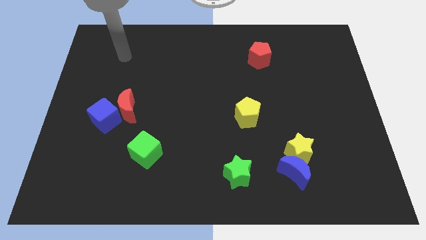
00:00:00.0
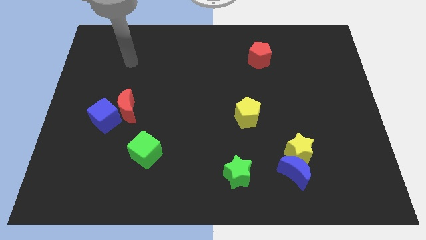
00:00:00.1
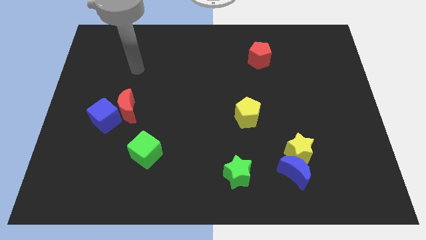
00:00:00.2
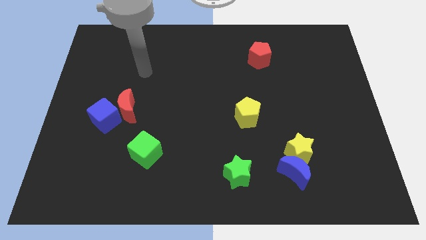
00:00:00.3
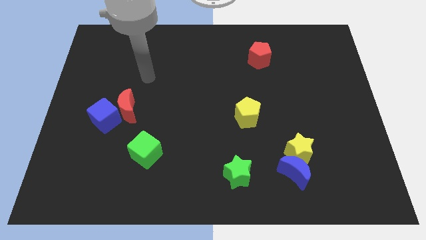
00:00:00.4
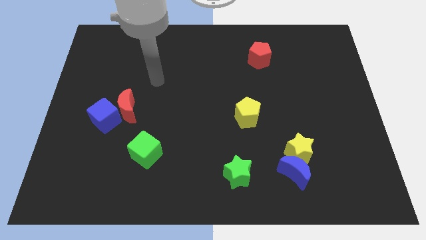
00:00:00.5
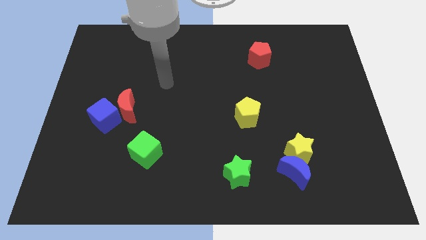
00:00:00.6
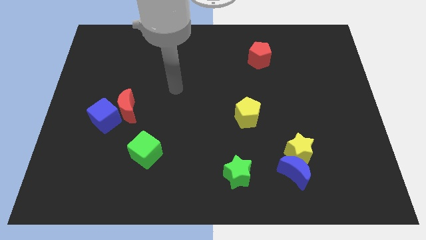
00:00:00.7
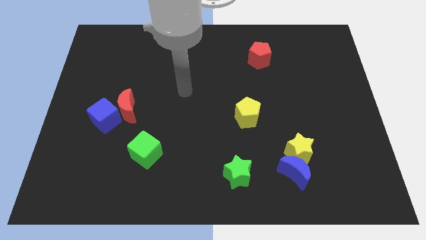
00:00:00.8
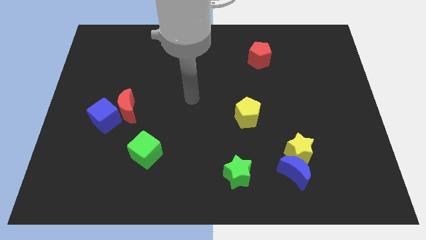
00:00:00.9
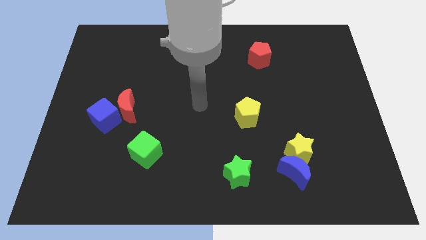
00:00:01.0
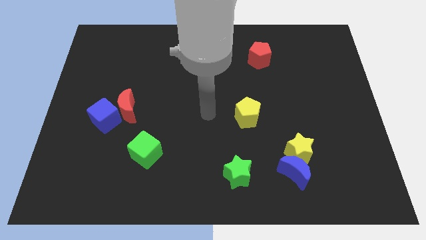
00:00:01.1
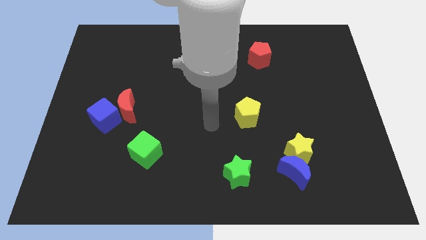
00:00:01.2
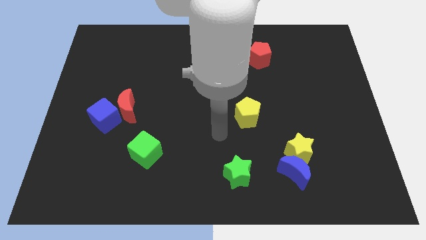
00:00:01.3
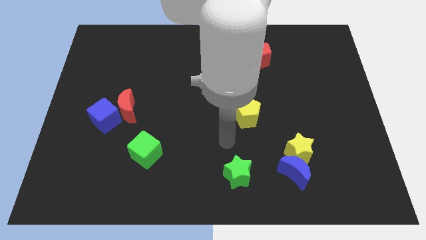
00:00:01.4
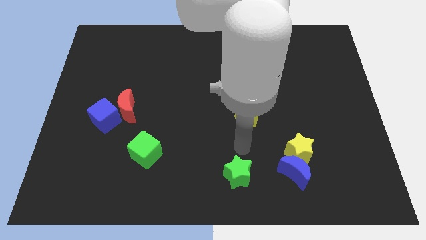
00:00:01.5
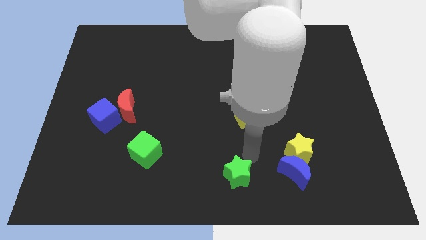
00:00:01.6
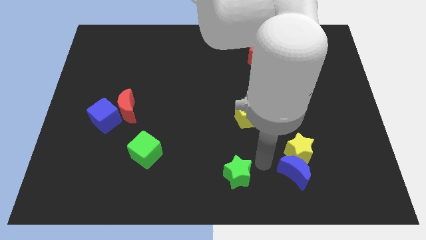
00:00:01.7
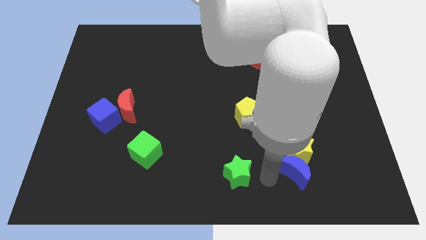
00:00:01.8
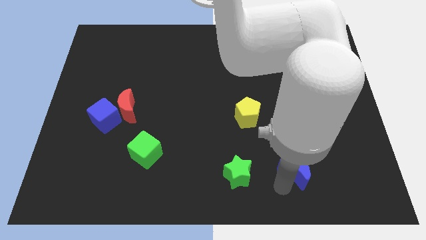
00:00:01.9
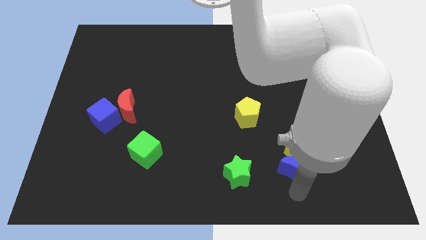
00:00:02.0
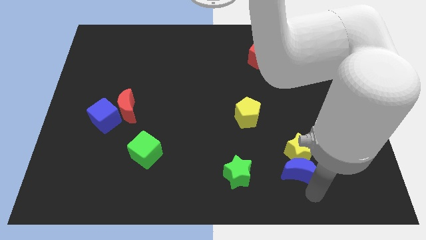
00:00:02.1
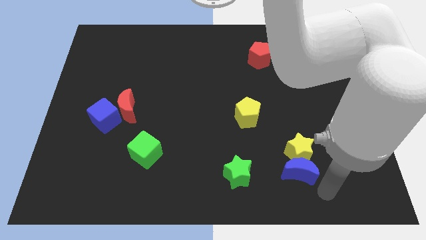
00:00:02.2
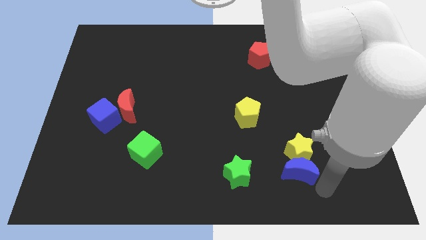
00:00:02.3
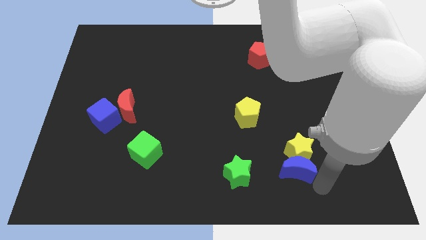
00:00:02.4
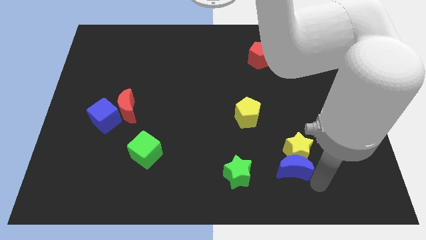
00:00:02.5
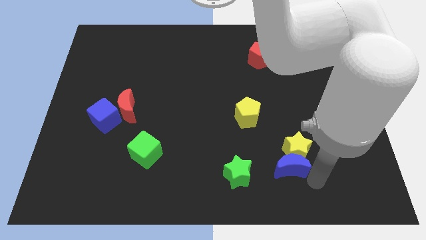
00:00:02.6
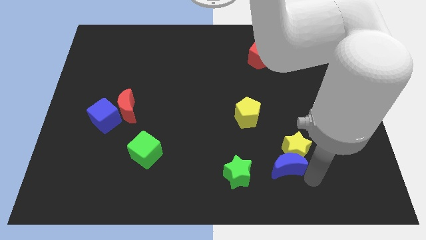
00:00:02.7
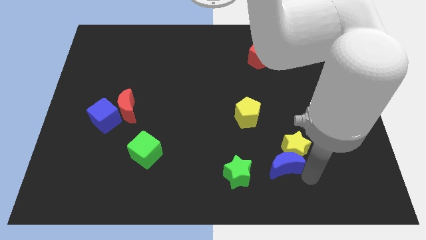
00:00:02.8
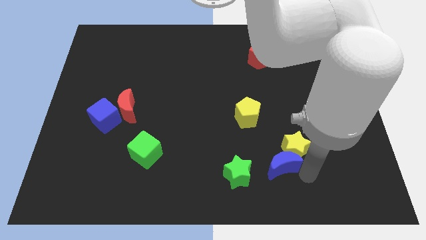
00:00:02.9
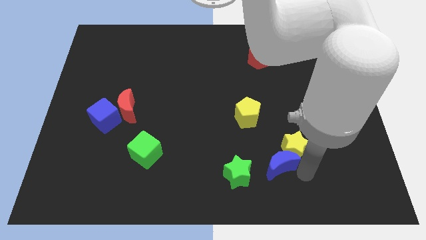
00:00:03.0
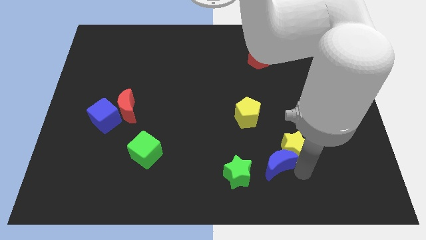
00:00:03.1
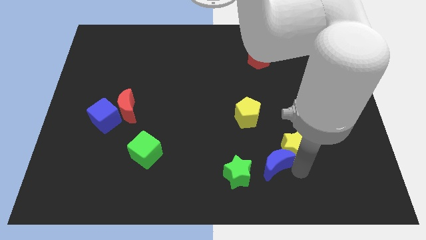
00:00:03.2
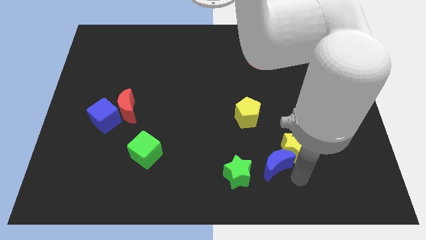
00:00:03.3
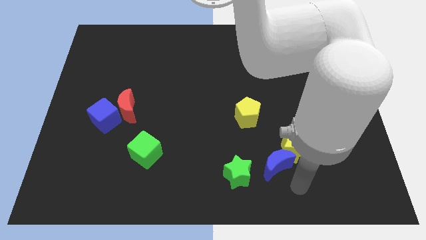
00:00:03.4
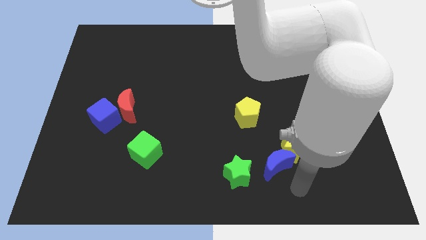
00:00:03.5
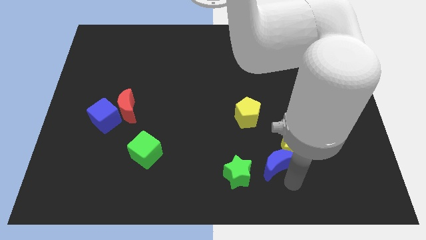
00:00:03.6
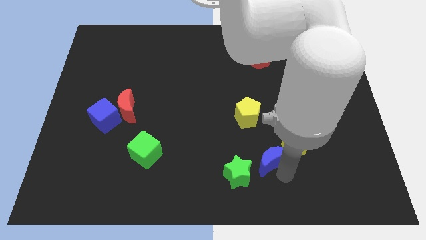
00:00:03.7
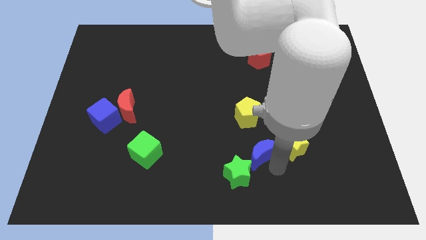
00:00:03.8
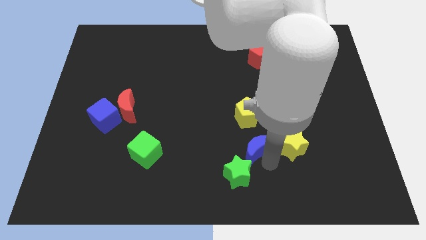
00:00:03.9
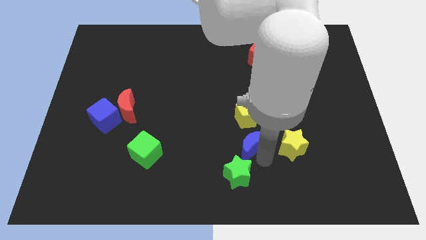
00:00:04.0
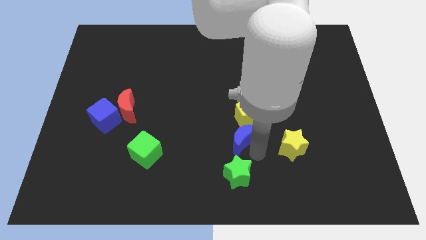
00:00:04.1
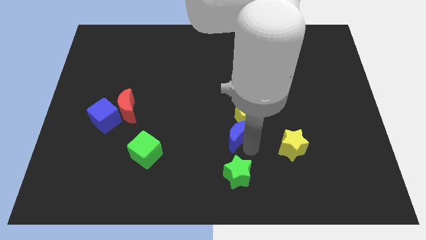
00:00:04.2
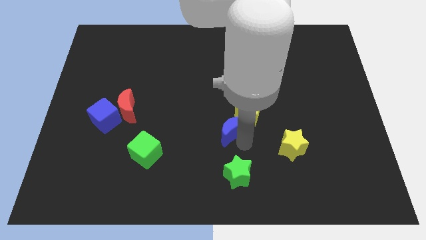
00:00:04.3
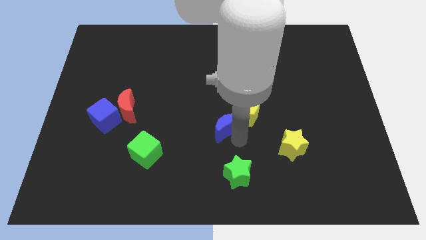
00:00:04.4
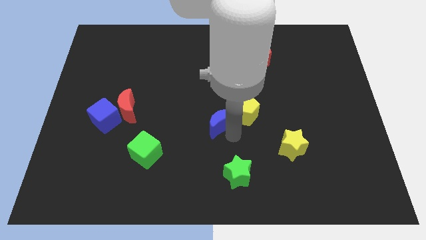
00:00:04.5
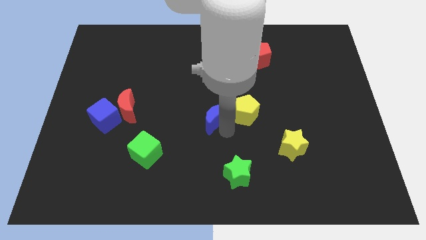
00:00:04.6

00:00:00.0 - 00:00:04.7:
slide the blue moon up and then to the left

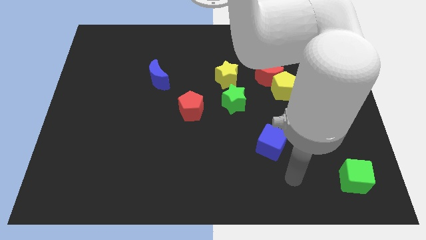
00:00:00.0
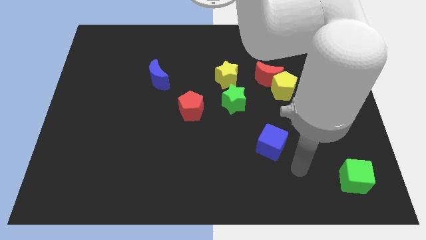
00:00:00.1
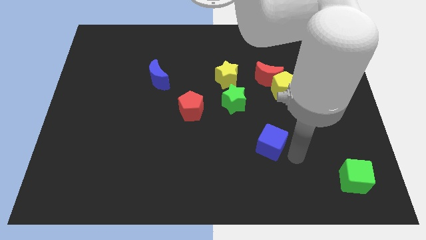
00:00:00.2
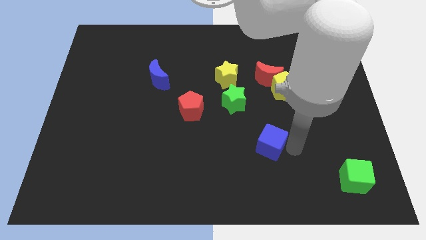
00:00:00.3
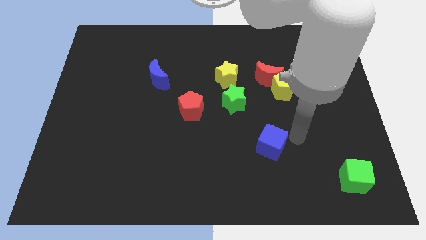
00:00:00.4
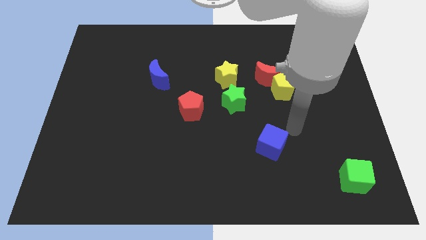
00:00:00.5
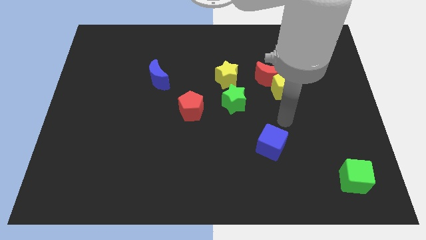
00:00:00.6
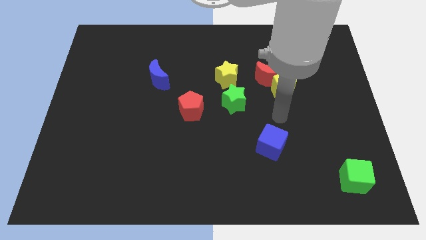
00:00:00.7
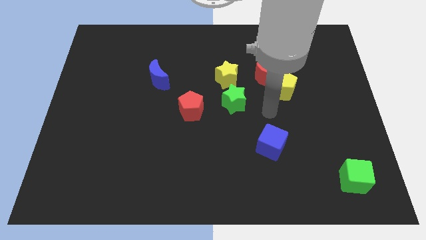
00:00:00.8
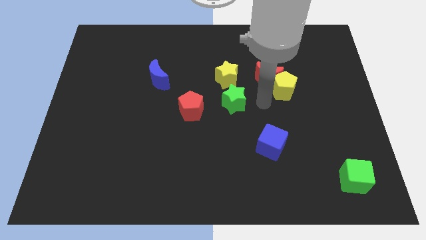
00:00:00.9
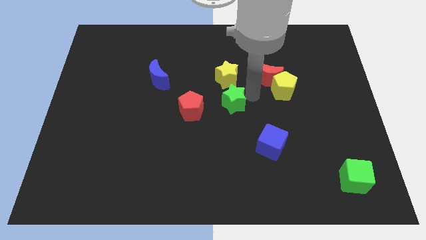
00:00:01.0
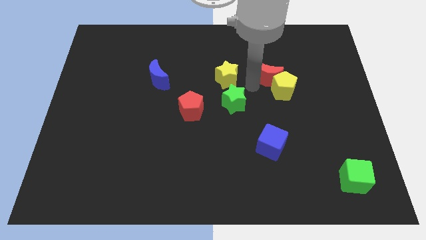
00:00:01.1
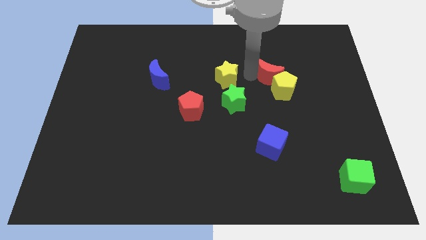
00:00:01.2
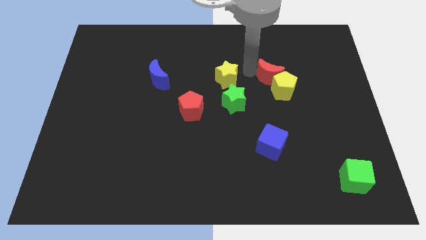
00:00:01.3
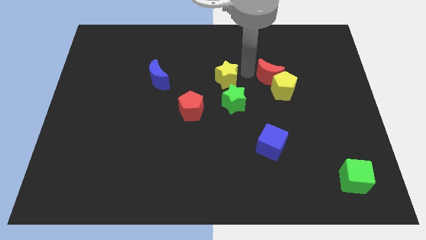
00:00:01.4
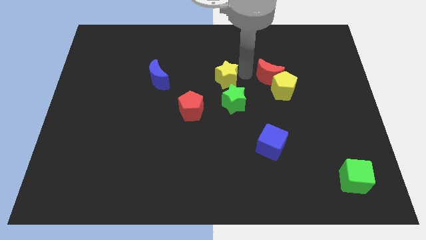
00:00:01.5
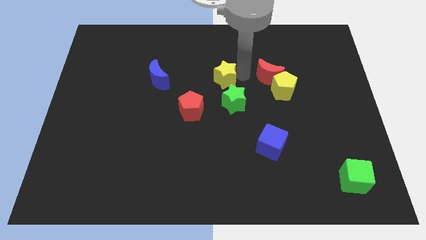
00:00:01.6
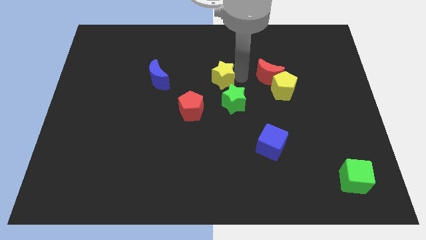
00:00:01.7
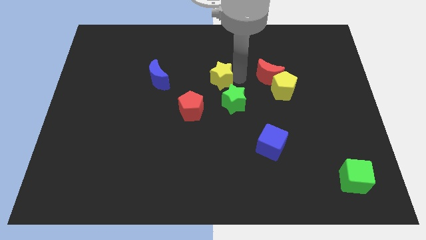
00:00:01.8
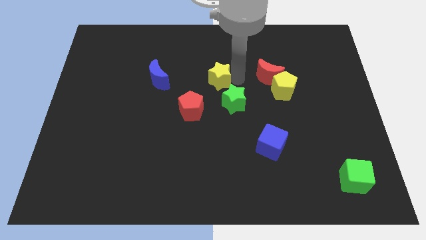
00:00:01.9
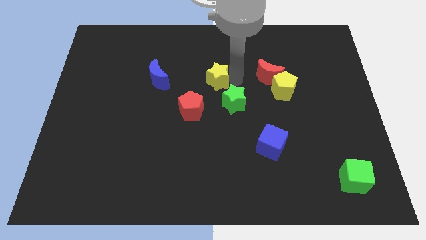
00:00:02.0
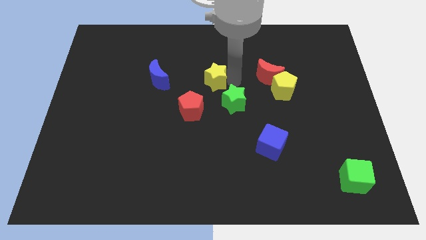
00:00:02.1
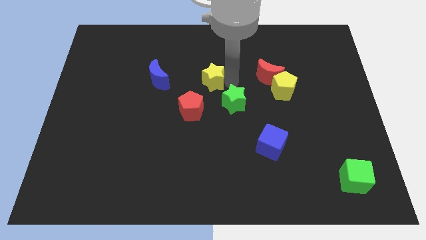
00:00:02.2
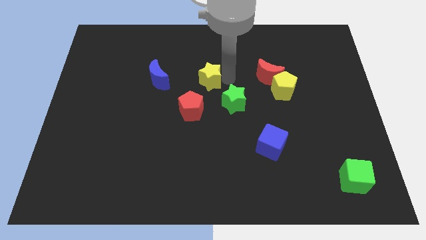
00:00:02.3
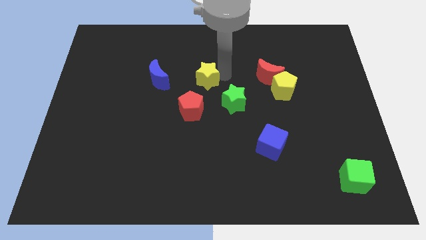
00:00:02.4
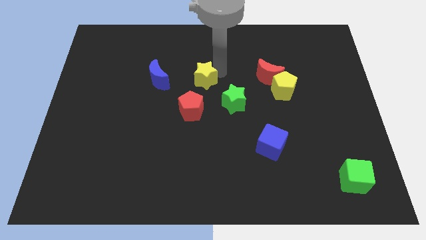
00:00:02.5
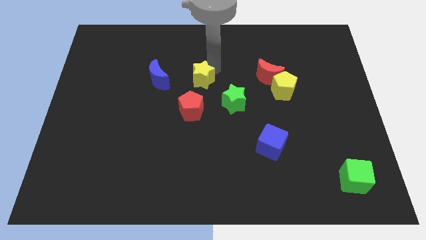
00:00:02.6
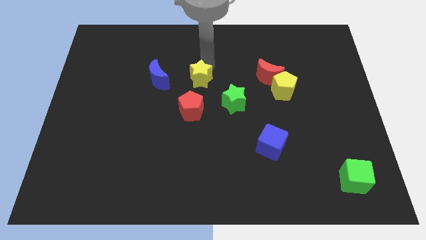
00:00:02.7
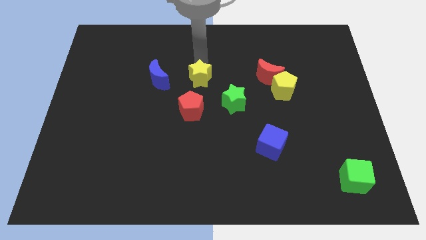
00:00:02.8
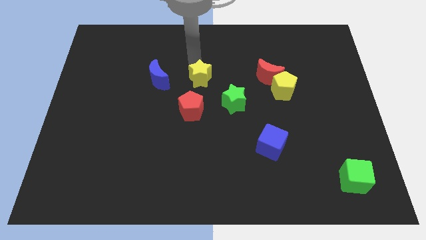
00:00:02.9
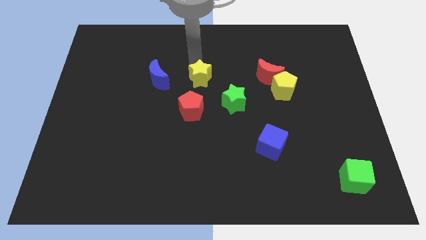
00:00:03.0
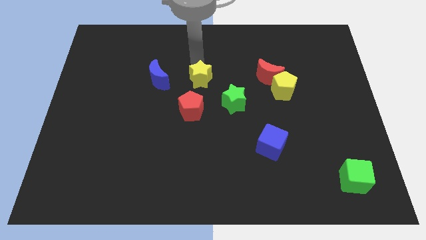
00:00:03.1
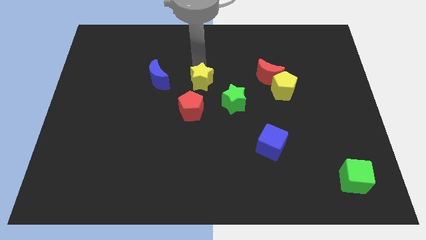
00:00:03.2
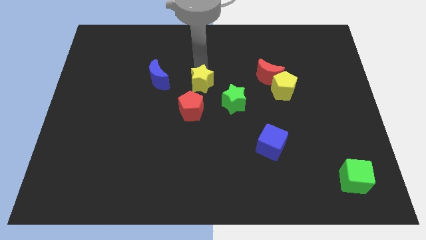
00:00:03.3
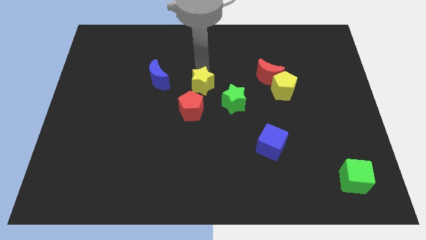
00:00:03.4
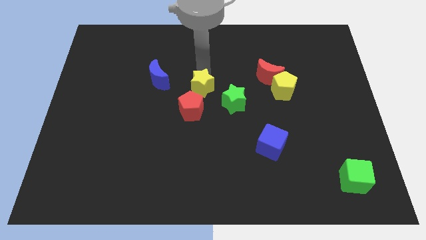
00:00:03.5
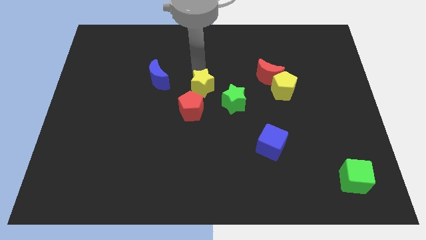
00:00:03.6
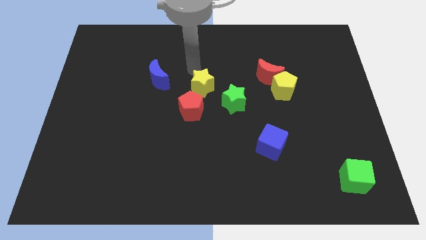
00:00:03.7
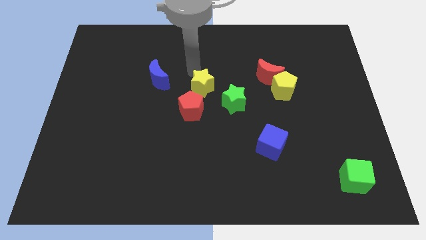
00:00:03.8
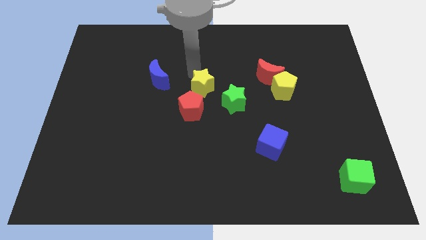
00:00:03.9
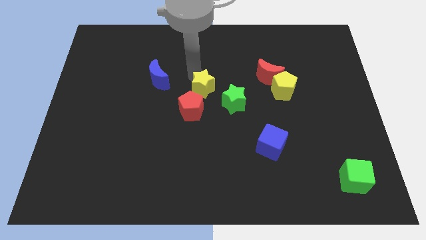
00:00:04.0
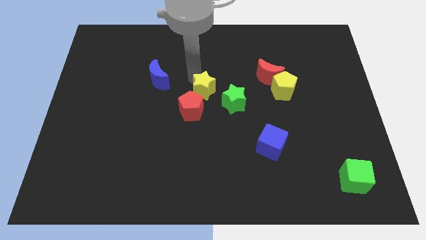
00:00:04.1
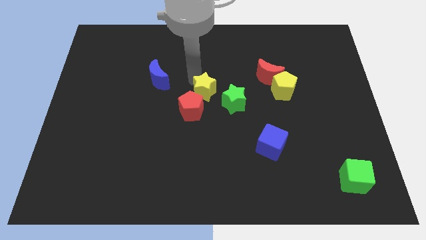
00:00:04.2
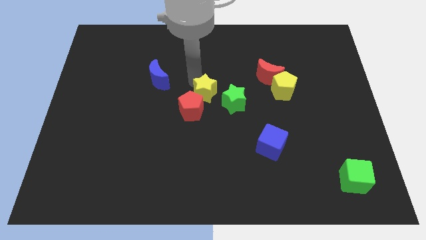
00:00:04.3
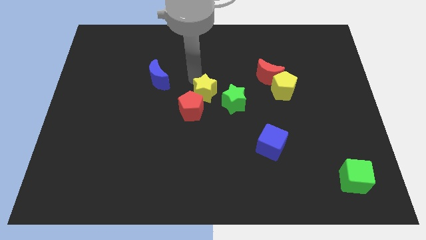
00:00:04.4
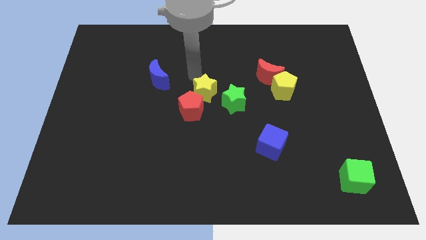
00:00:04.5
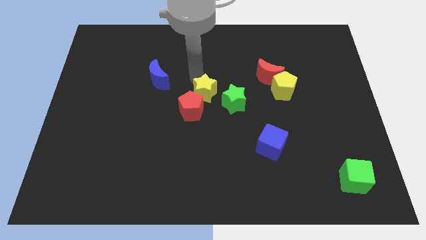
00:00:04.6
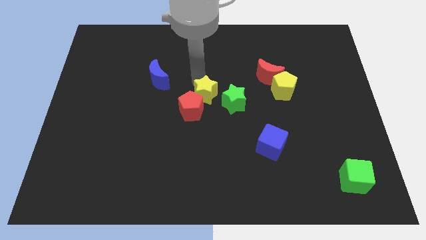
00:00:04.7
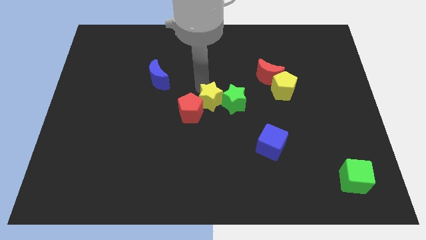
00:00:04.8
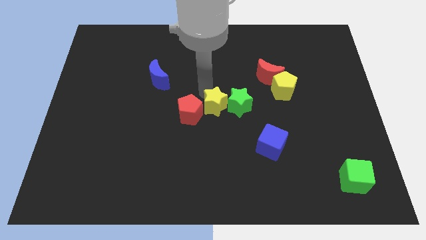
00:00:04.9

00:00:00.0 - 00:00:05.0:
slightly push the yellow star downwards
